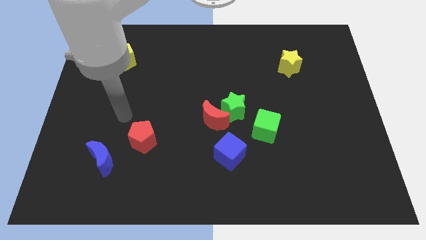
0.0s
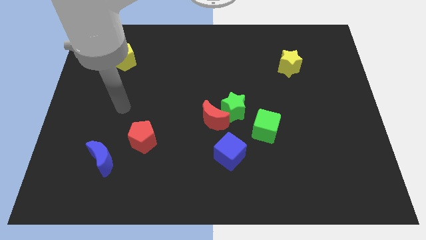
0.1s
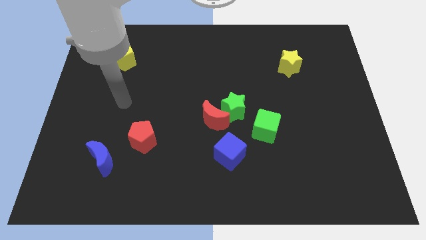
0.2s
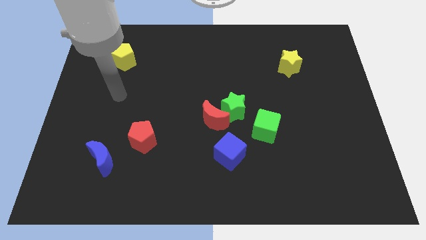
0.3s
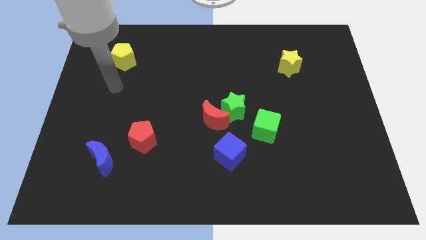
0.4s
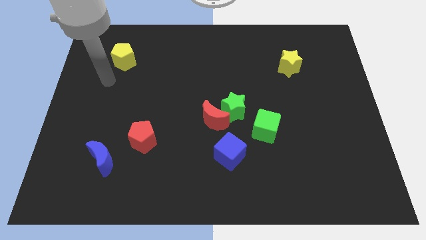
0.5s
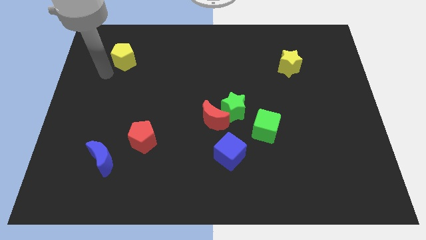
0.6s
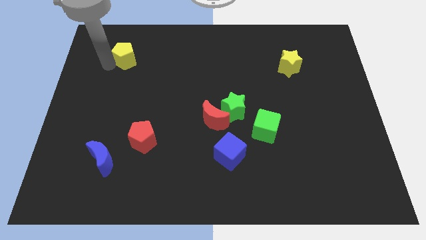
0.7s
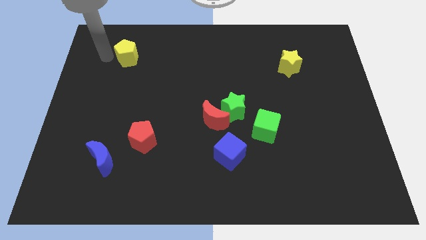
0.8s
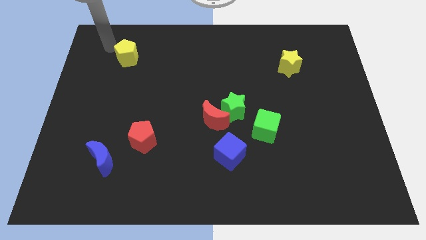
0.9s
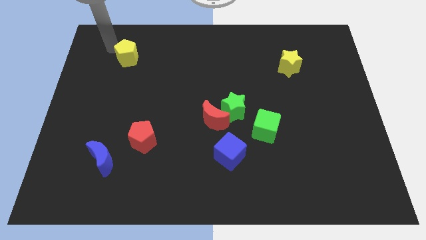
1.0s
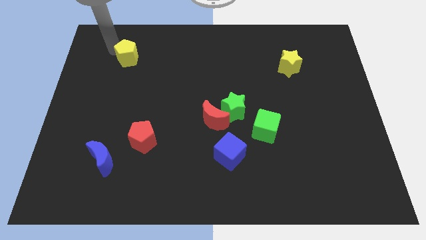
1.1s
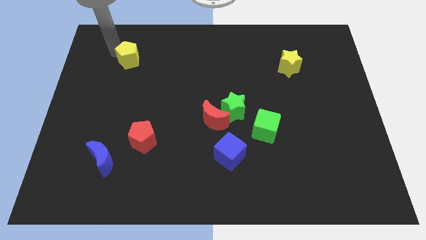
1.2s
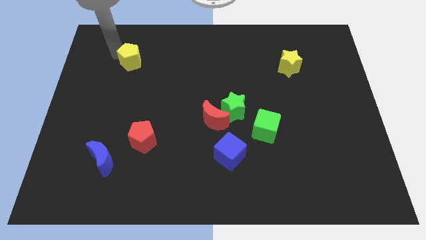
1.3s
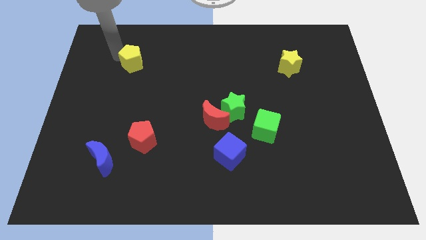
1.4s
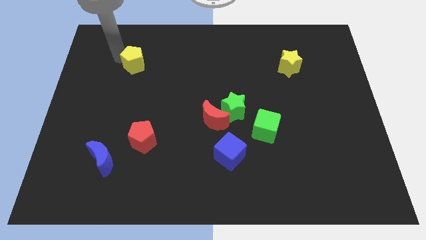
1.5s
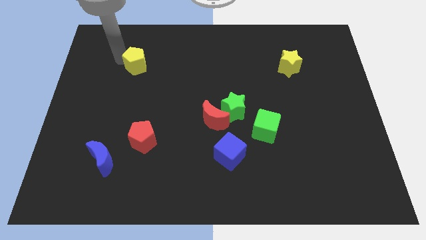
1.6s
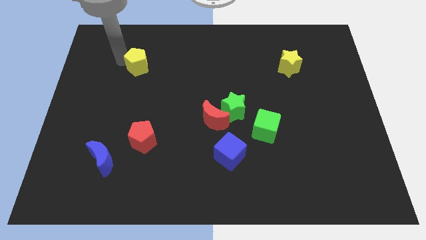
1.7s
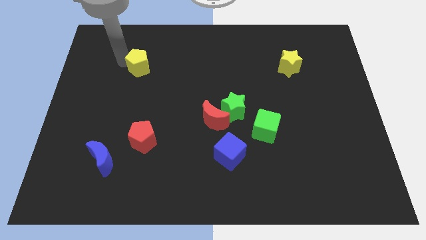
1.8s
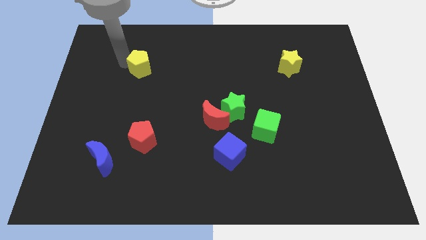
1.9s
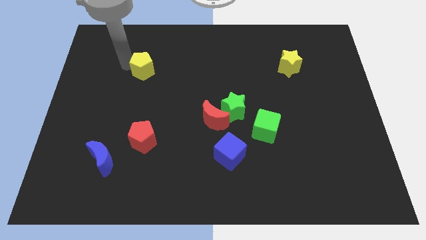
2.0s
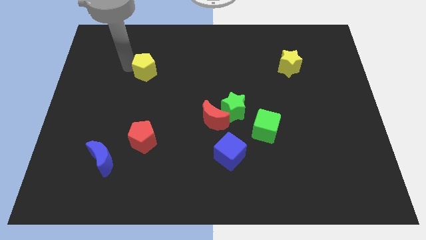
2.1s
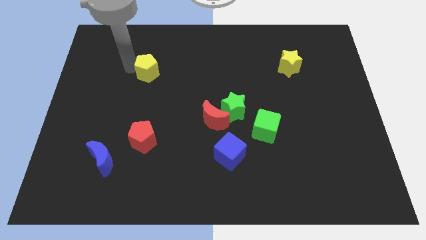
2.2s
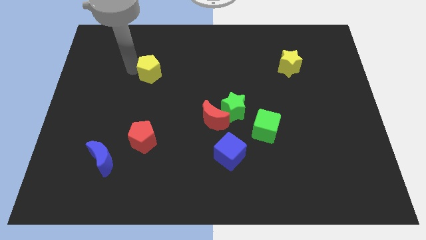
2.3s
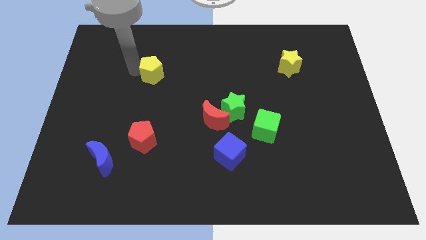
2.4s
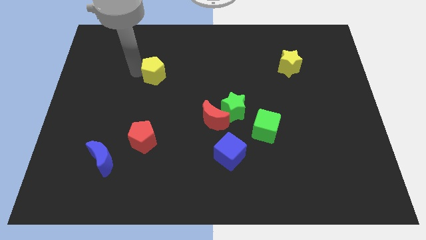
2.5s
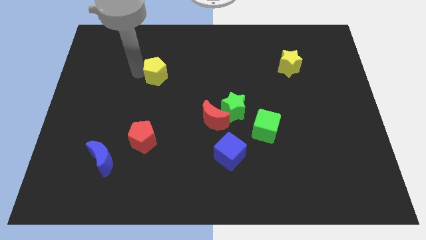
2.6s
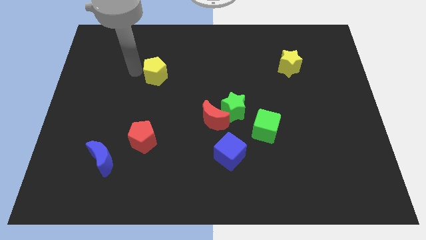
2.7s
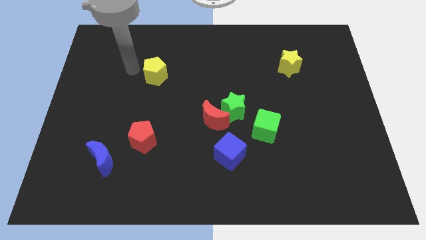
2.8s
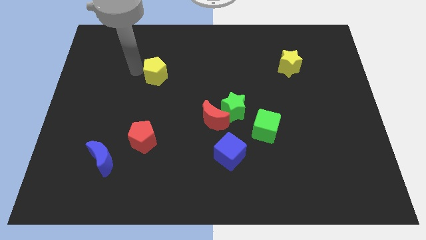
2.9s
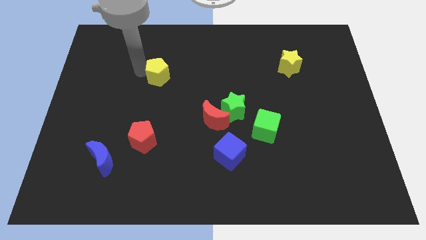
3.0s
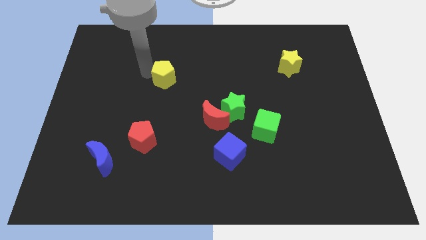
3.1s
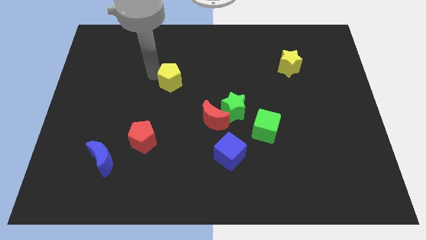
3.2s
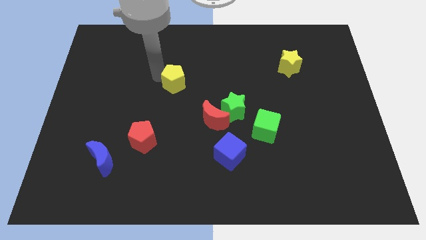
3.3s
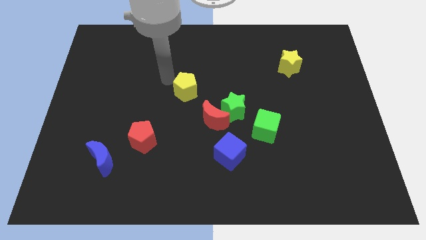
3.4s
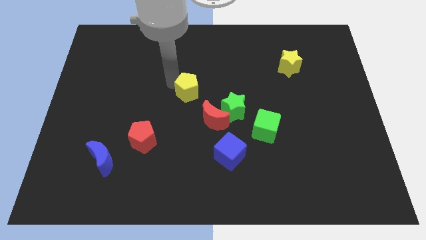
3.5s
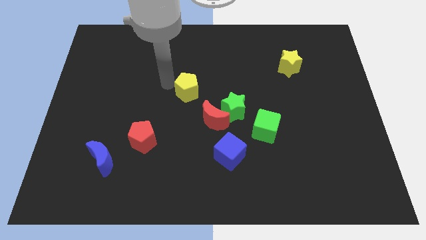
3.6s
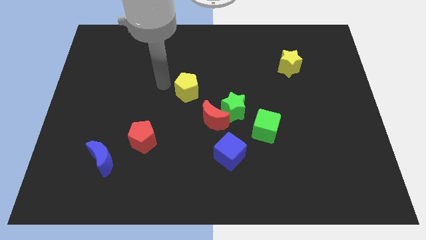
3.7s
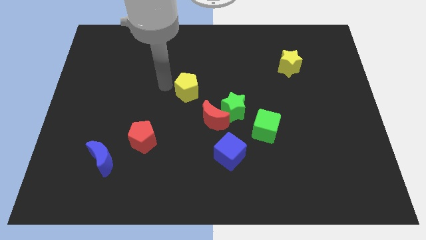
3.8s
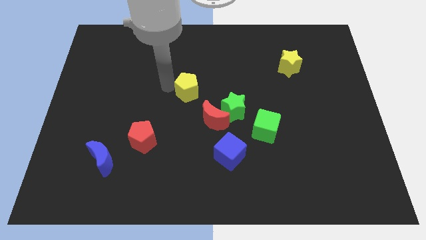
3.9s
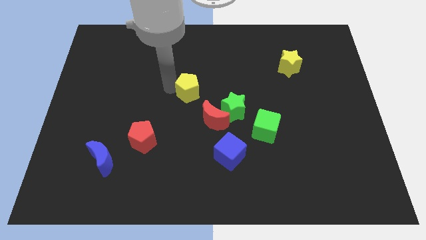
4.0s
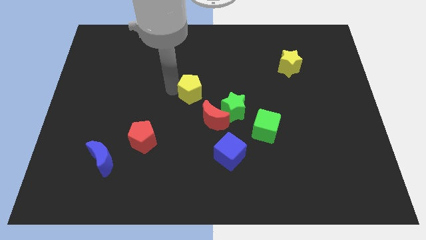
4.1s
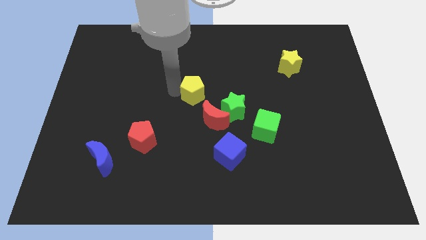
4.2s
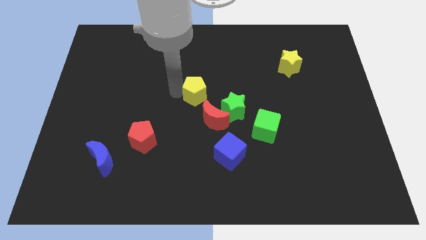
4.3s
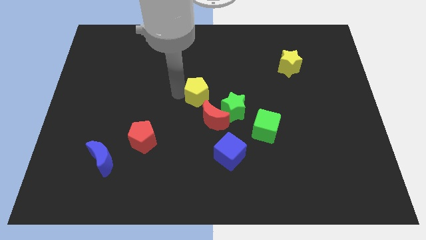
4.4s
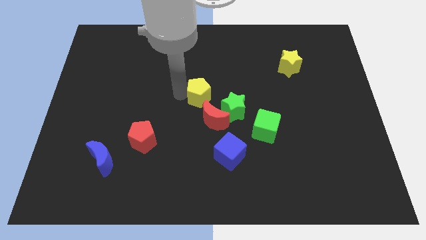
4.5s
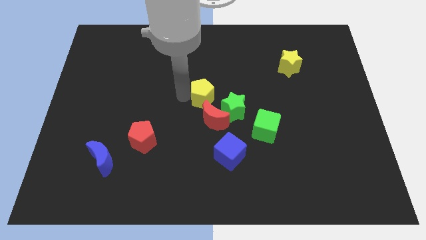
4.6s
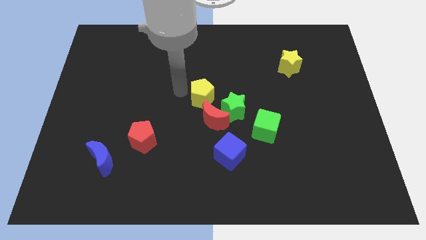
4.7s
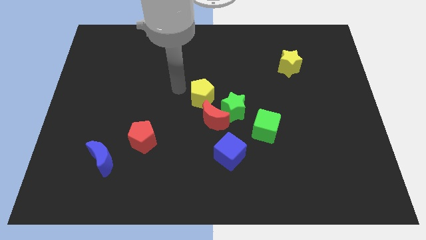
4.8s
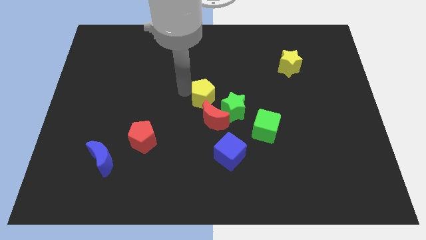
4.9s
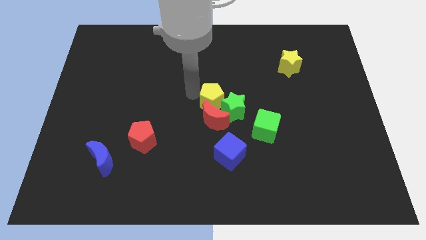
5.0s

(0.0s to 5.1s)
put the yellow pentagon close to the green star

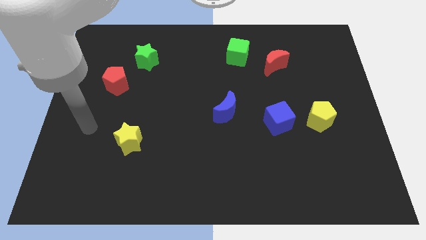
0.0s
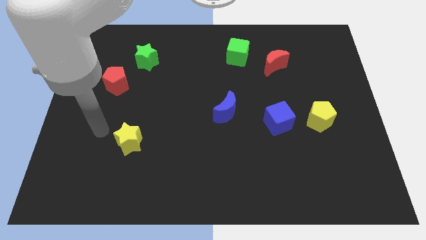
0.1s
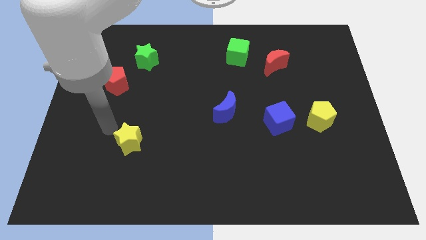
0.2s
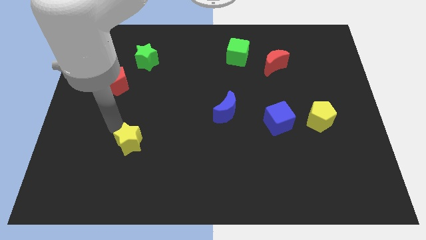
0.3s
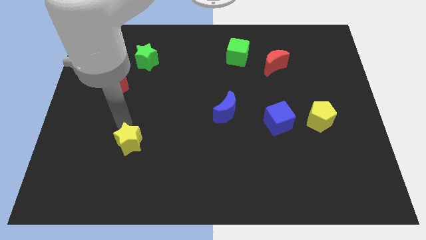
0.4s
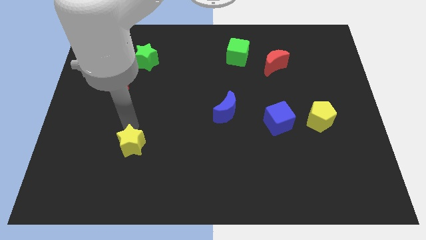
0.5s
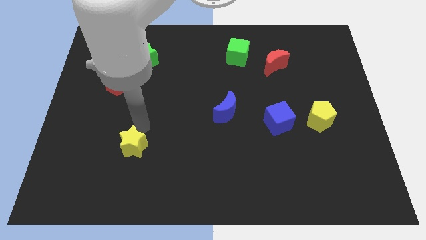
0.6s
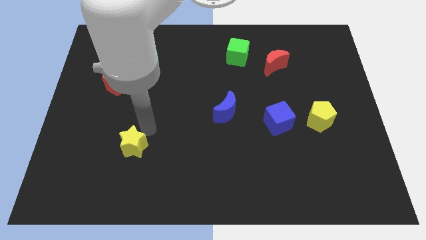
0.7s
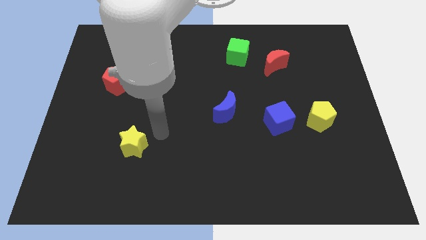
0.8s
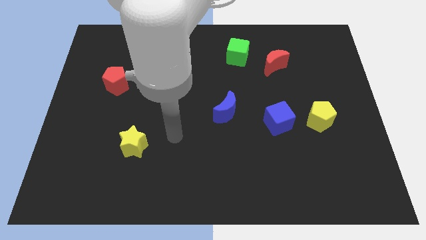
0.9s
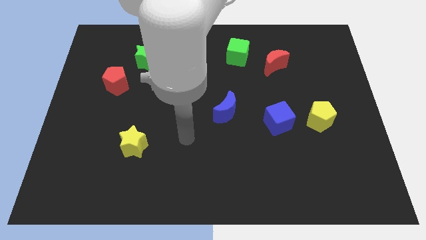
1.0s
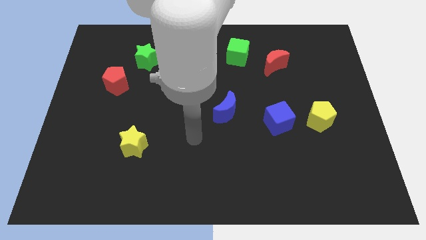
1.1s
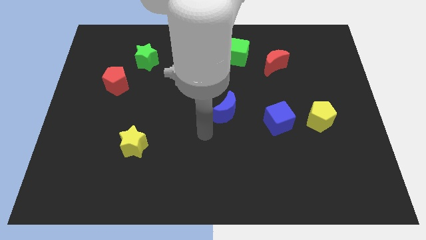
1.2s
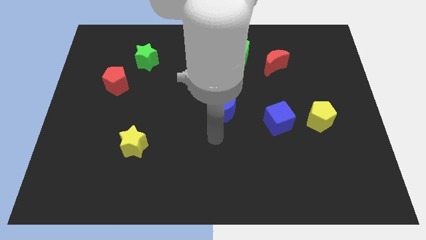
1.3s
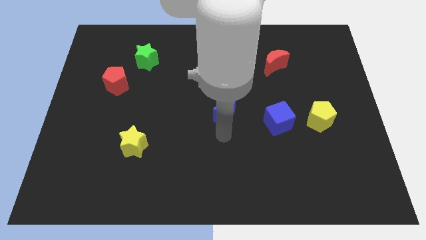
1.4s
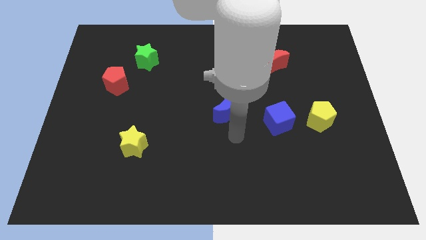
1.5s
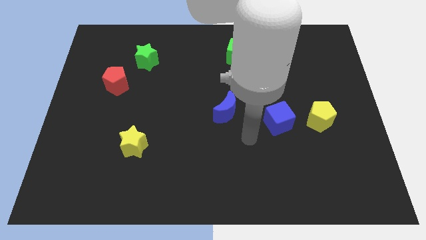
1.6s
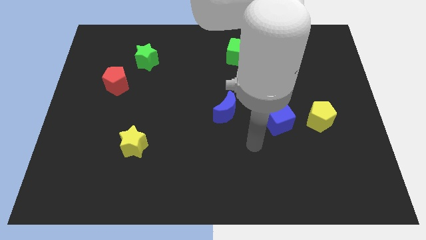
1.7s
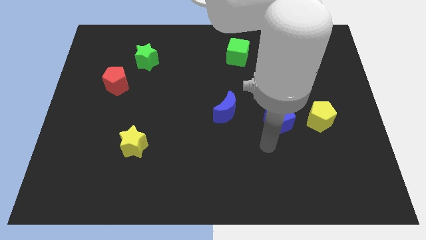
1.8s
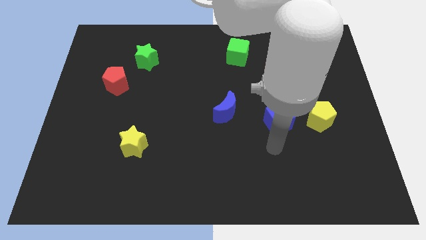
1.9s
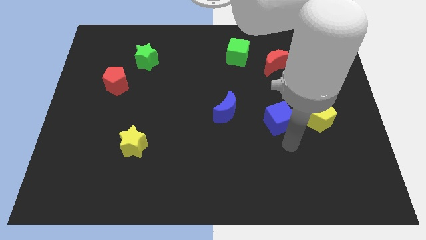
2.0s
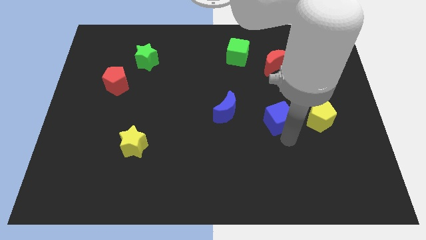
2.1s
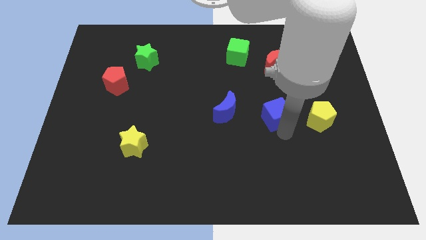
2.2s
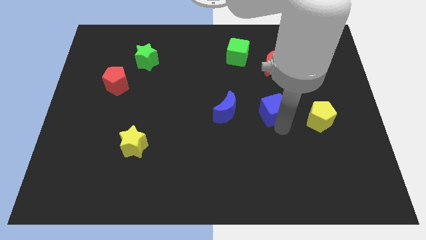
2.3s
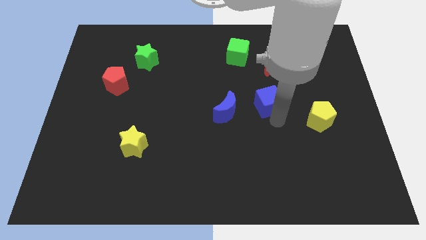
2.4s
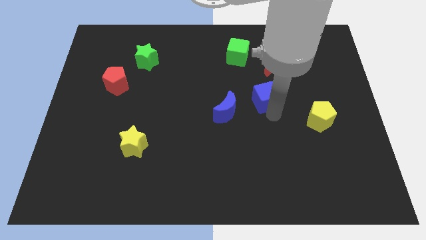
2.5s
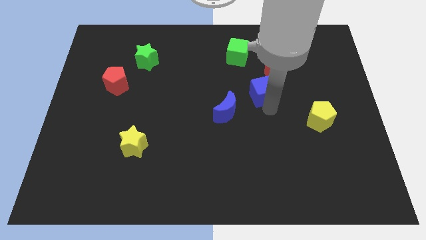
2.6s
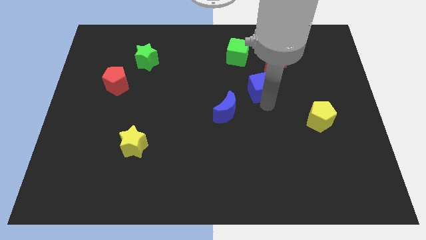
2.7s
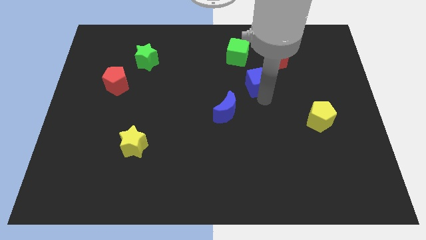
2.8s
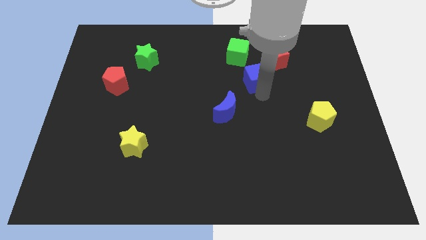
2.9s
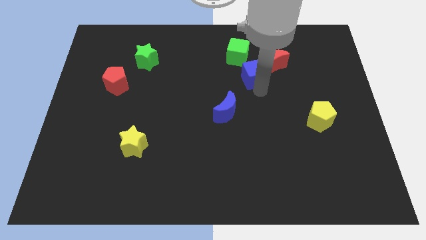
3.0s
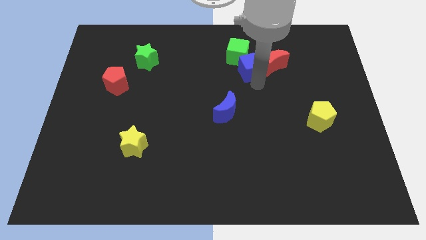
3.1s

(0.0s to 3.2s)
slide the blue cube next to the green cube
